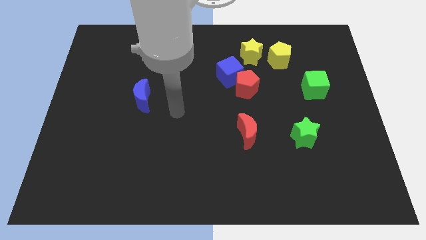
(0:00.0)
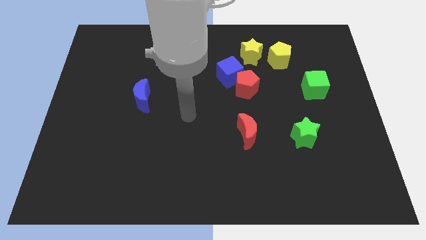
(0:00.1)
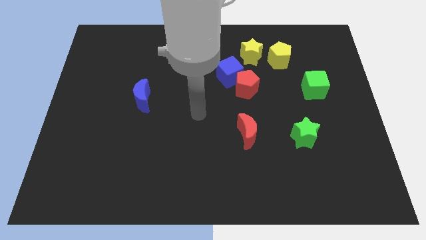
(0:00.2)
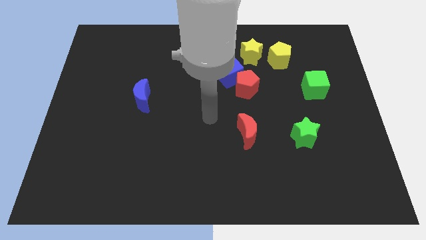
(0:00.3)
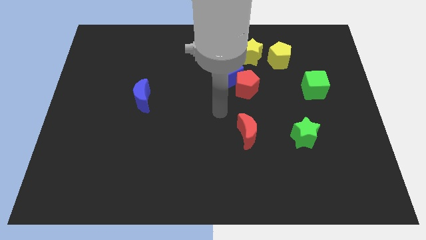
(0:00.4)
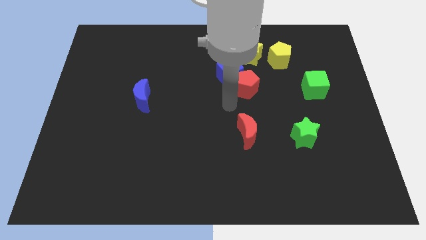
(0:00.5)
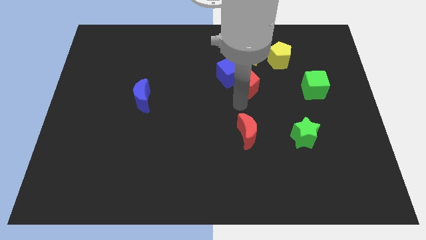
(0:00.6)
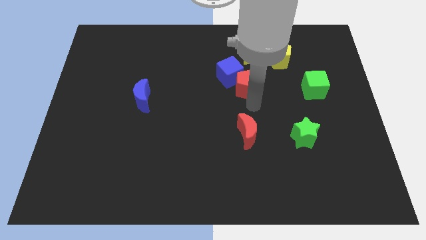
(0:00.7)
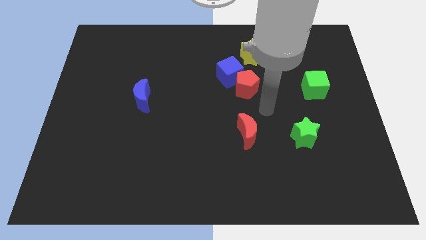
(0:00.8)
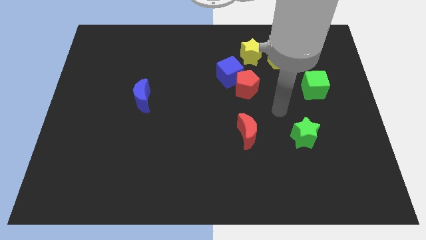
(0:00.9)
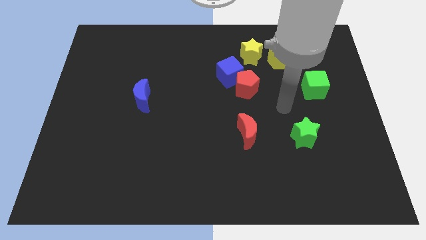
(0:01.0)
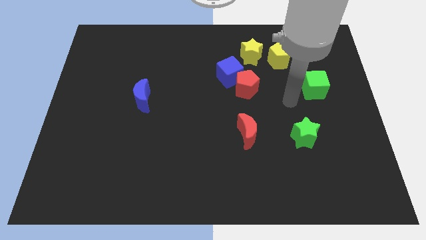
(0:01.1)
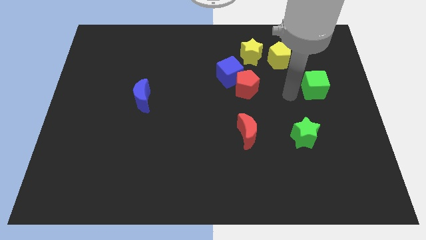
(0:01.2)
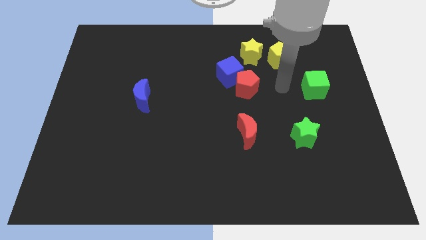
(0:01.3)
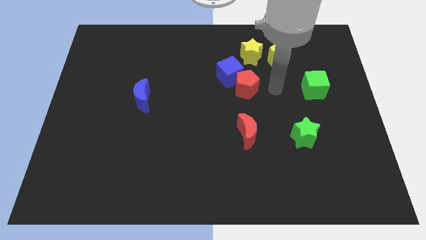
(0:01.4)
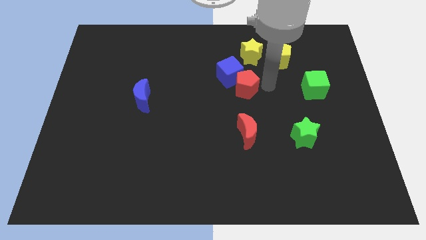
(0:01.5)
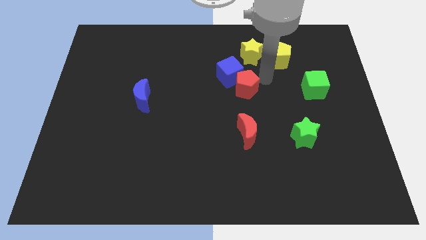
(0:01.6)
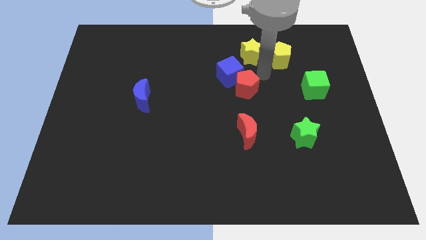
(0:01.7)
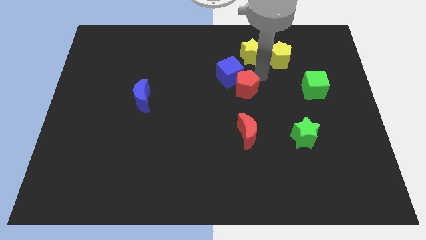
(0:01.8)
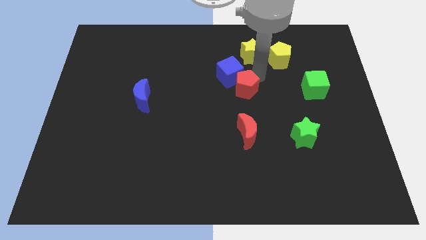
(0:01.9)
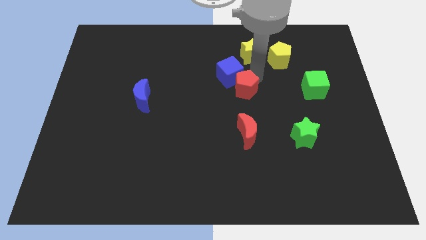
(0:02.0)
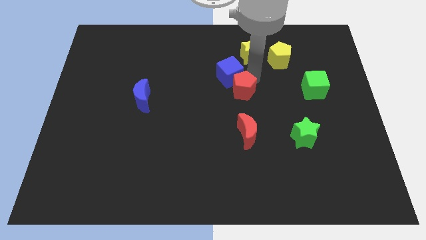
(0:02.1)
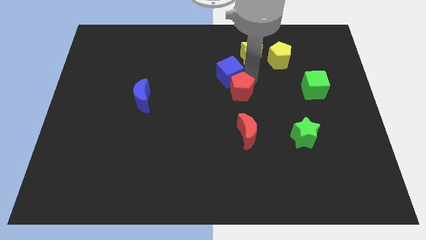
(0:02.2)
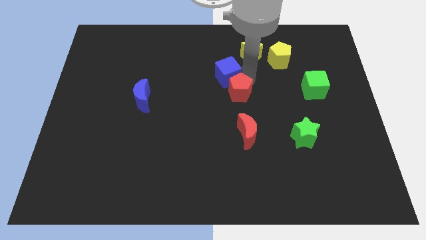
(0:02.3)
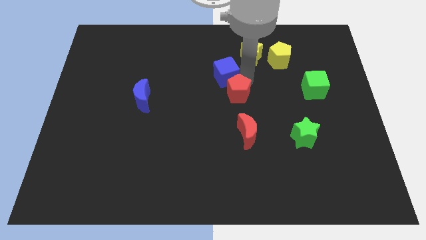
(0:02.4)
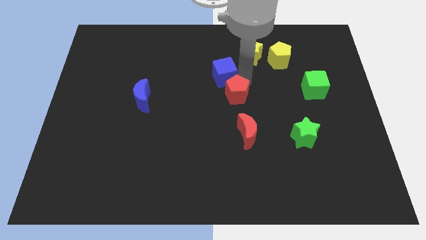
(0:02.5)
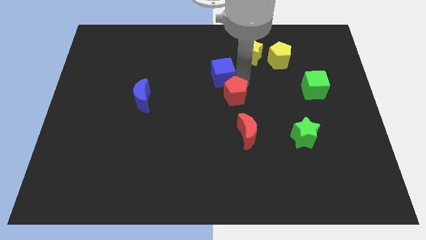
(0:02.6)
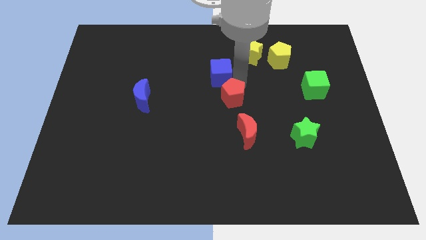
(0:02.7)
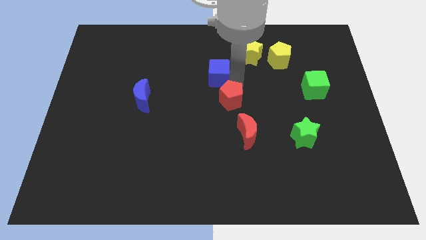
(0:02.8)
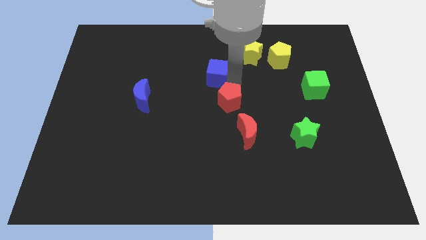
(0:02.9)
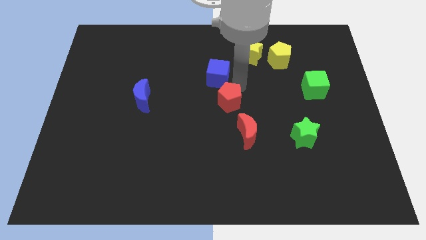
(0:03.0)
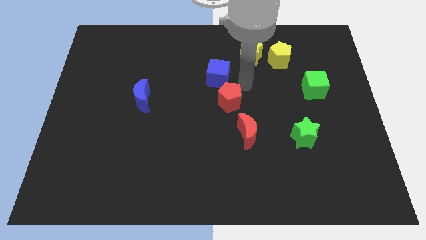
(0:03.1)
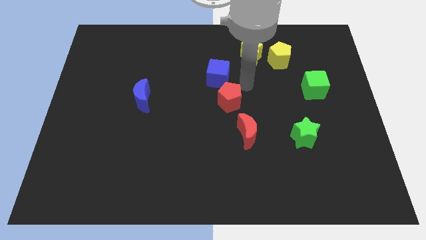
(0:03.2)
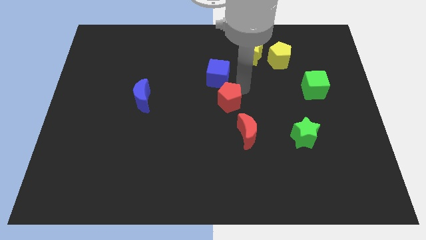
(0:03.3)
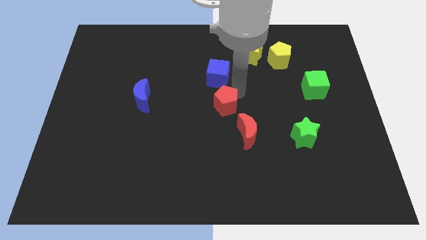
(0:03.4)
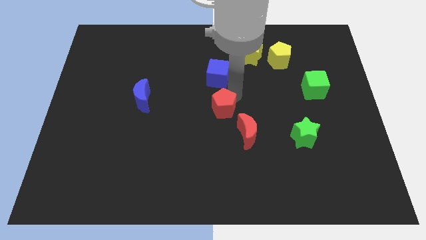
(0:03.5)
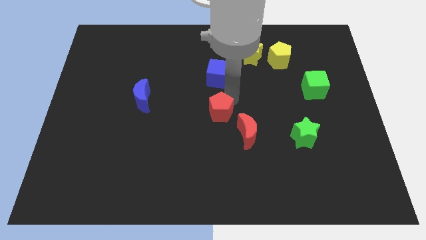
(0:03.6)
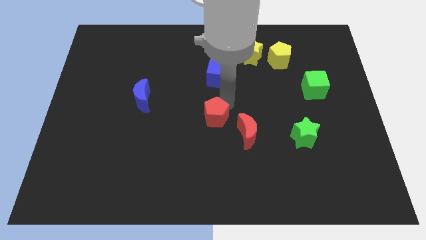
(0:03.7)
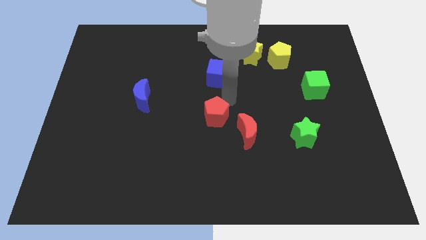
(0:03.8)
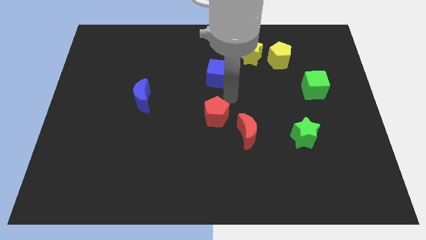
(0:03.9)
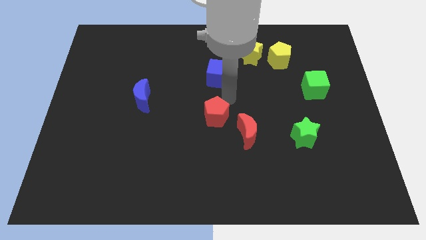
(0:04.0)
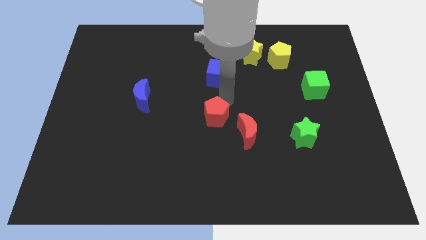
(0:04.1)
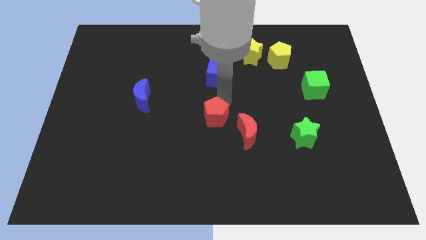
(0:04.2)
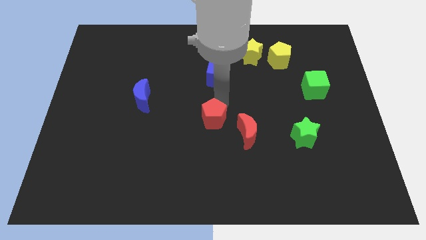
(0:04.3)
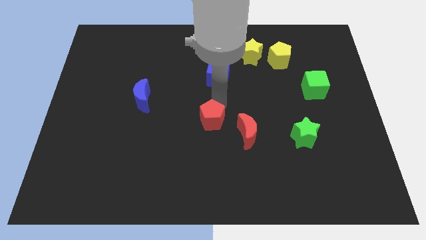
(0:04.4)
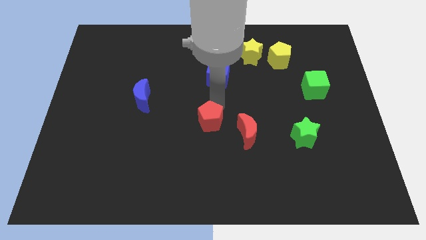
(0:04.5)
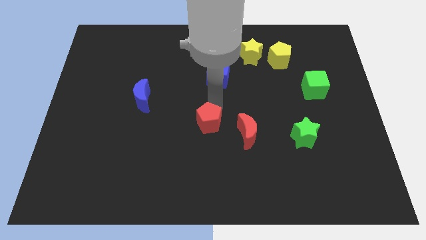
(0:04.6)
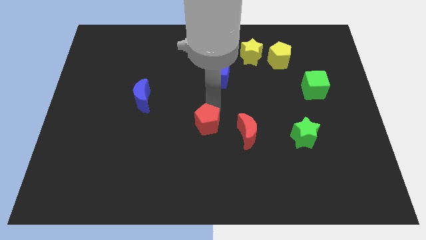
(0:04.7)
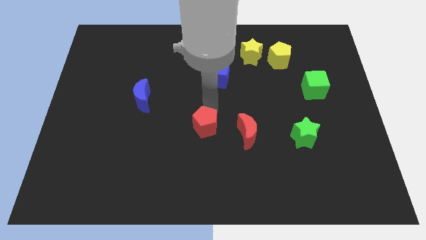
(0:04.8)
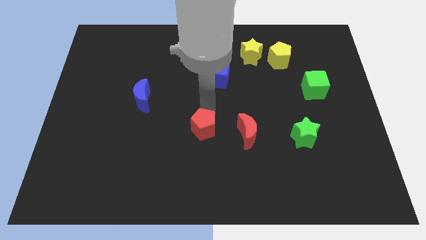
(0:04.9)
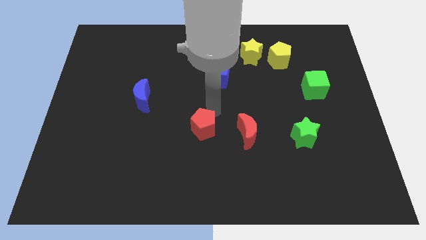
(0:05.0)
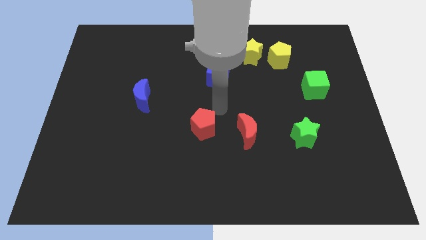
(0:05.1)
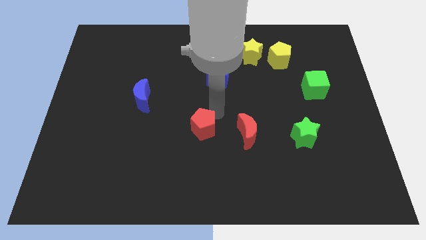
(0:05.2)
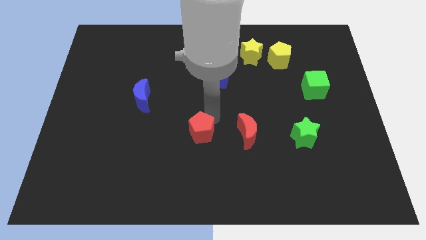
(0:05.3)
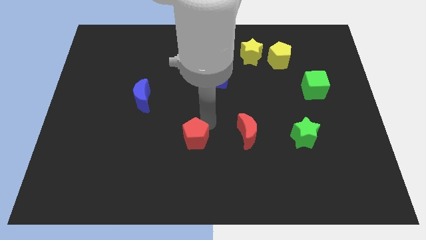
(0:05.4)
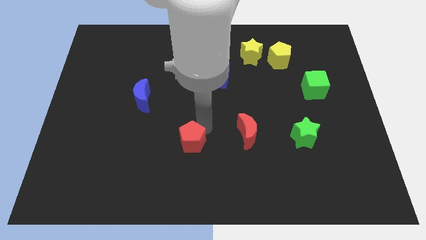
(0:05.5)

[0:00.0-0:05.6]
slide the red pentagon diagonally downwards and to the left

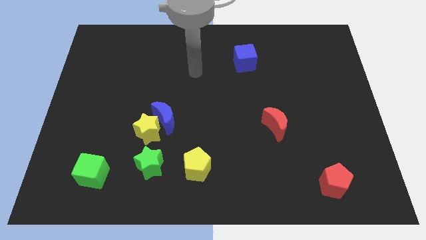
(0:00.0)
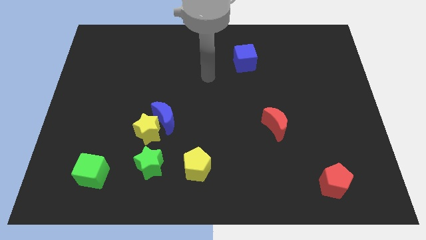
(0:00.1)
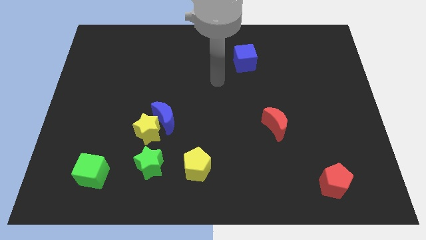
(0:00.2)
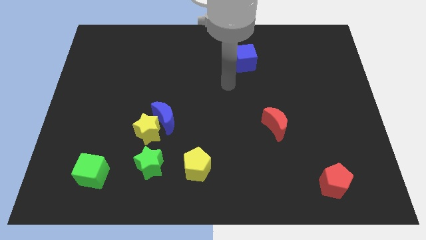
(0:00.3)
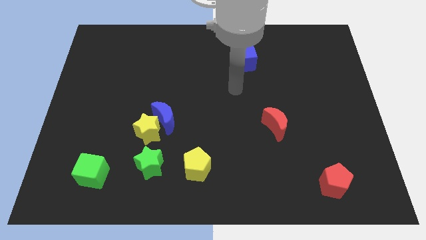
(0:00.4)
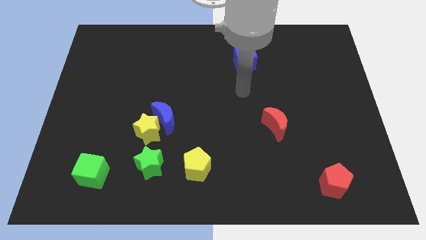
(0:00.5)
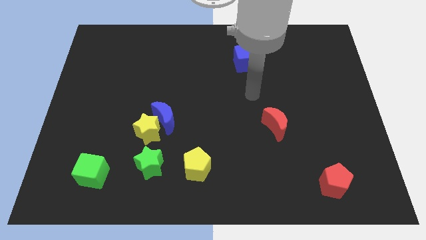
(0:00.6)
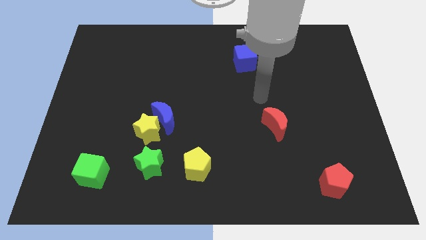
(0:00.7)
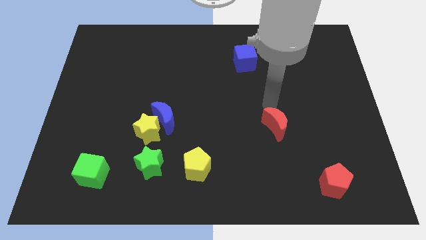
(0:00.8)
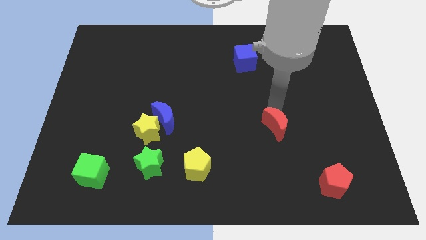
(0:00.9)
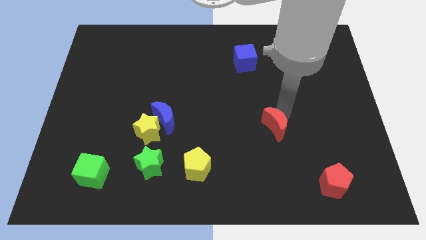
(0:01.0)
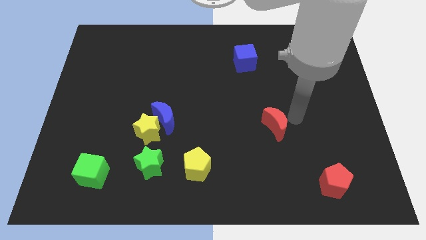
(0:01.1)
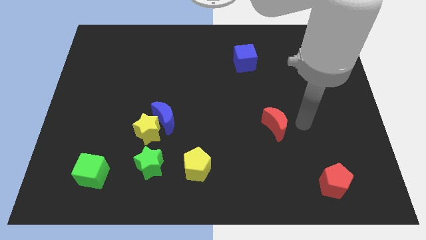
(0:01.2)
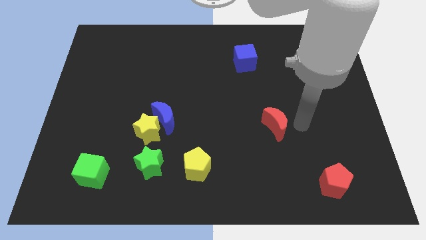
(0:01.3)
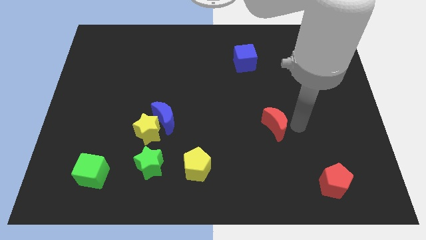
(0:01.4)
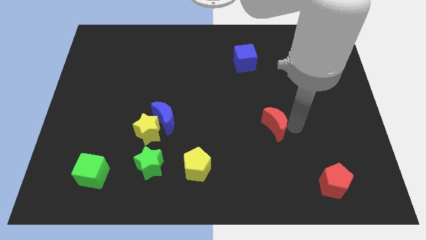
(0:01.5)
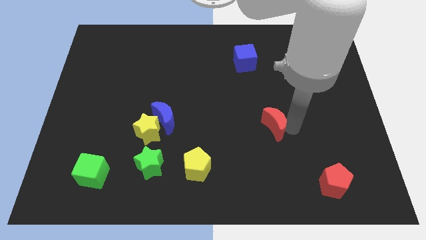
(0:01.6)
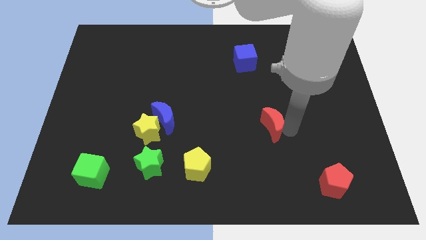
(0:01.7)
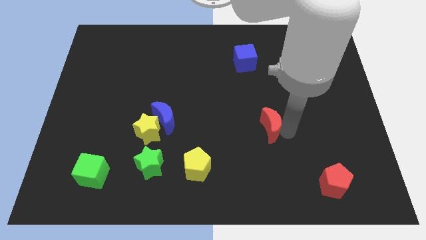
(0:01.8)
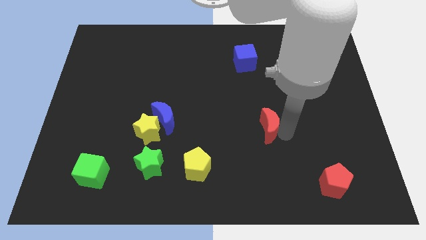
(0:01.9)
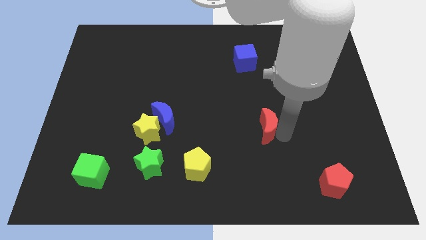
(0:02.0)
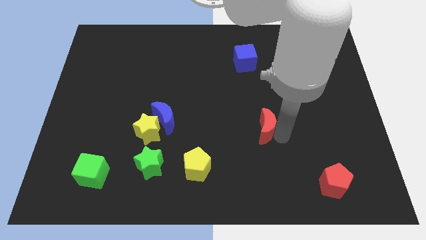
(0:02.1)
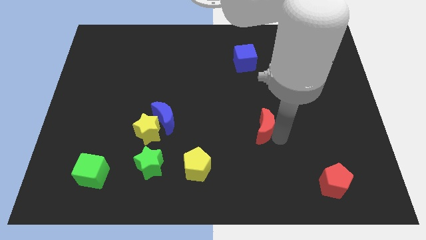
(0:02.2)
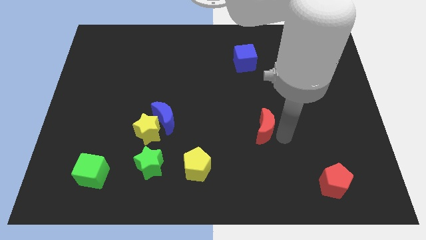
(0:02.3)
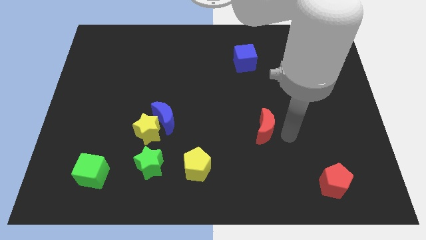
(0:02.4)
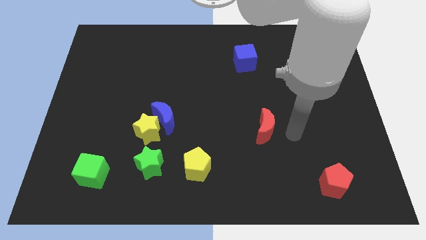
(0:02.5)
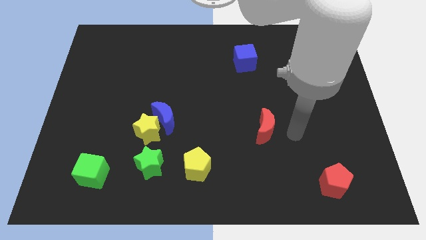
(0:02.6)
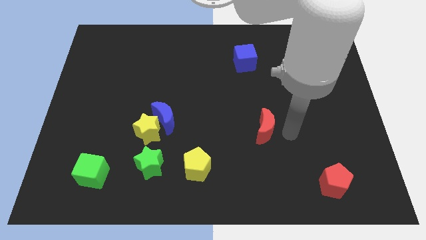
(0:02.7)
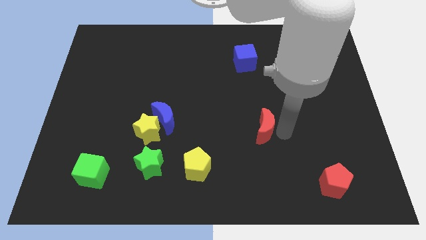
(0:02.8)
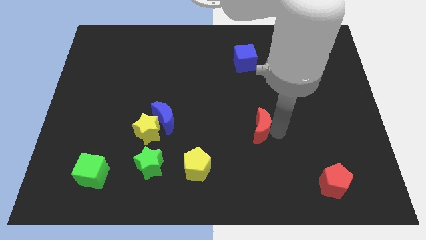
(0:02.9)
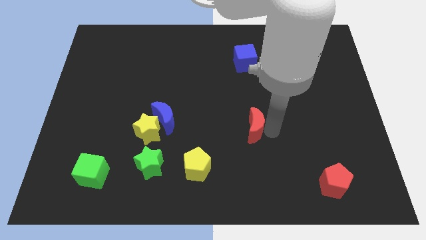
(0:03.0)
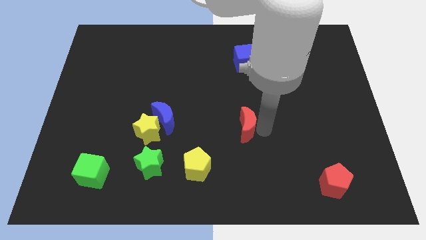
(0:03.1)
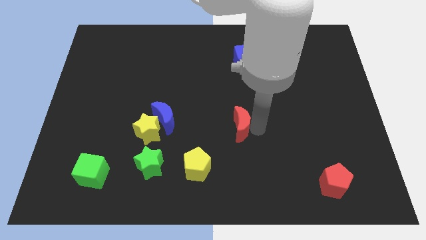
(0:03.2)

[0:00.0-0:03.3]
push the red moon a little bit left
